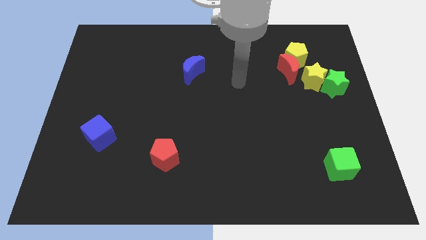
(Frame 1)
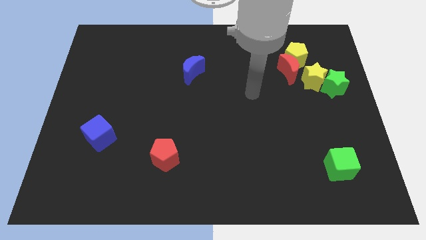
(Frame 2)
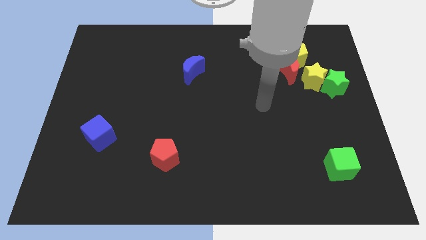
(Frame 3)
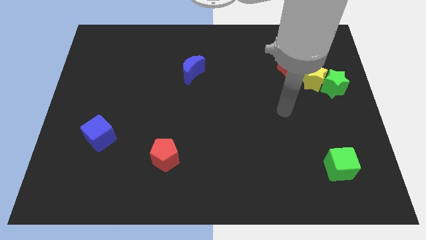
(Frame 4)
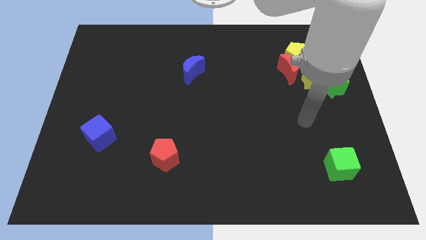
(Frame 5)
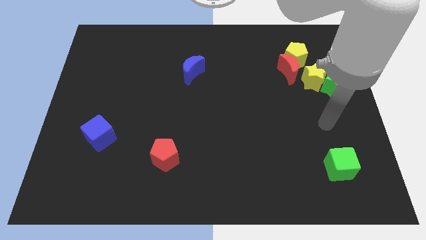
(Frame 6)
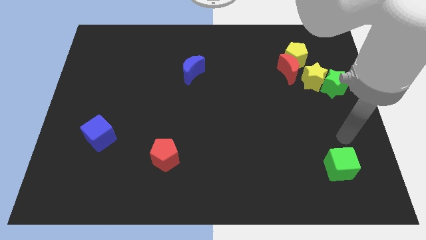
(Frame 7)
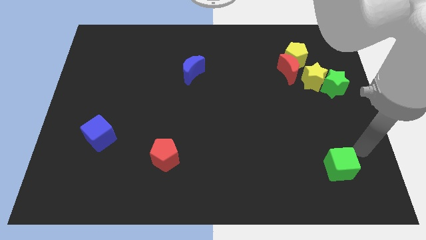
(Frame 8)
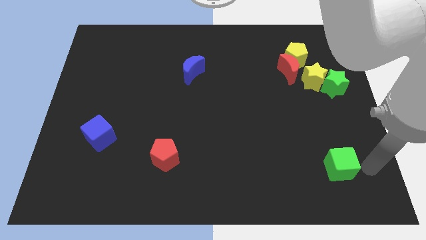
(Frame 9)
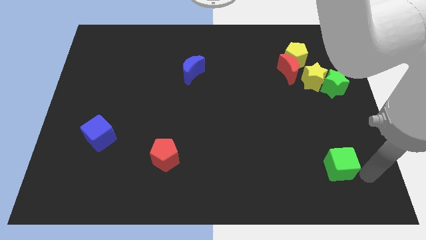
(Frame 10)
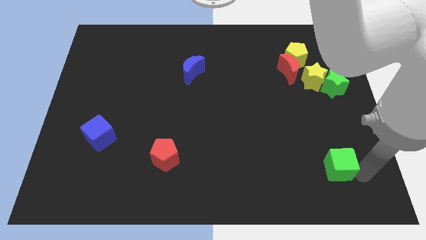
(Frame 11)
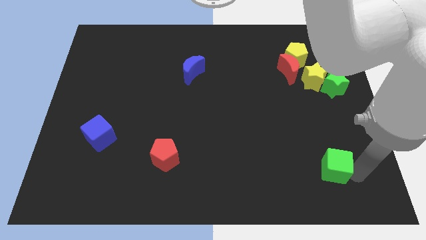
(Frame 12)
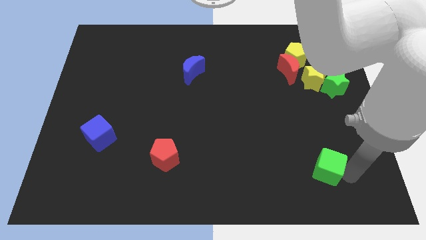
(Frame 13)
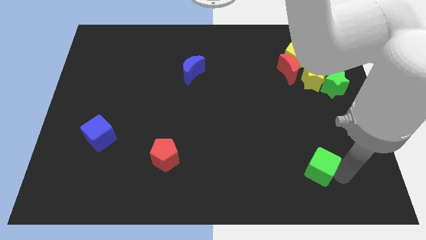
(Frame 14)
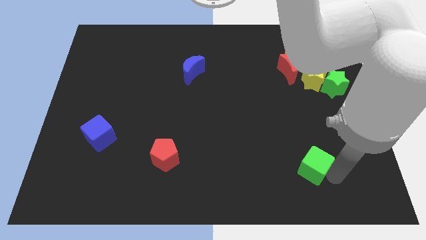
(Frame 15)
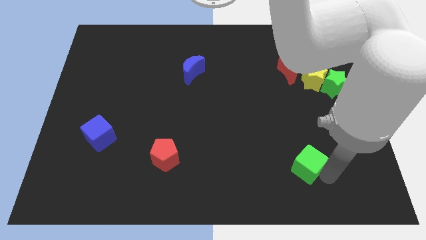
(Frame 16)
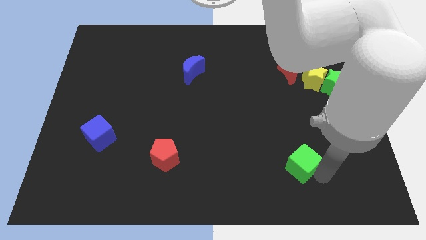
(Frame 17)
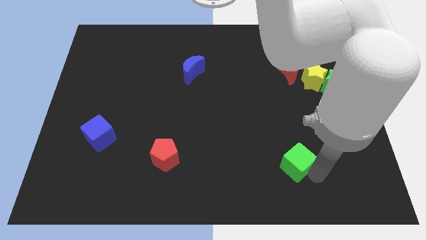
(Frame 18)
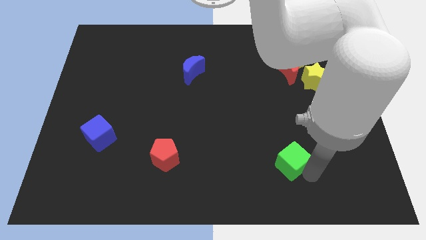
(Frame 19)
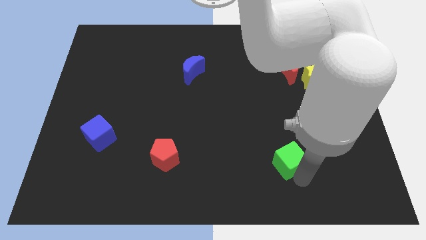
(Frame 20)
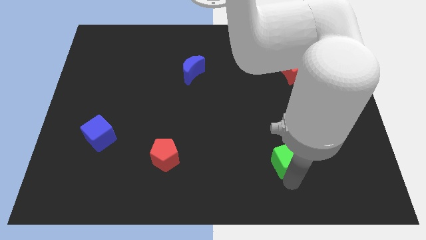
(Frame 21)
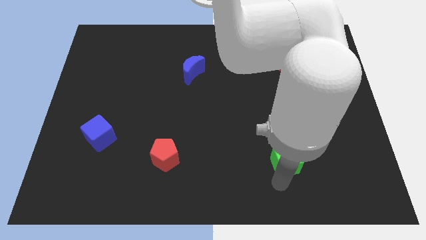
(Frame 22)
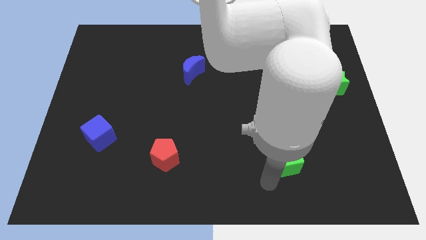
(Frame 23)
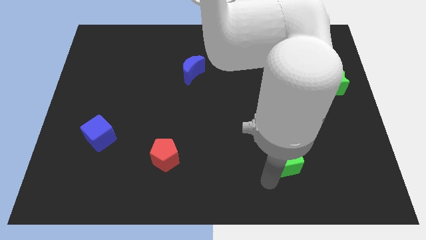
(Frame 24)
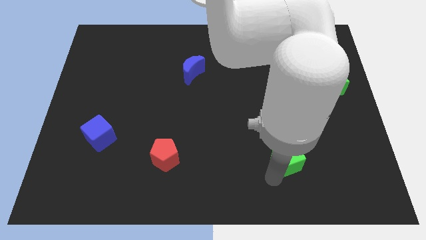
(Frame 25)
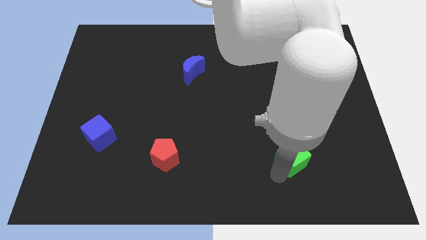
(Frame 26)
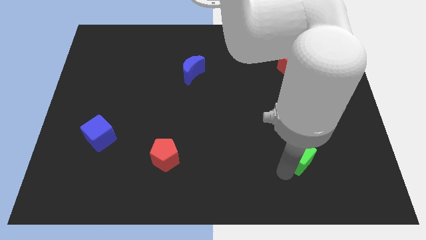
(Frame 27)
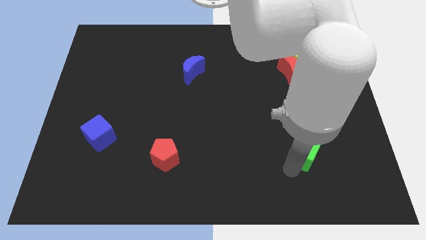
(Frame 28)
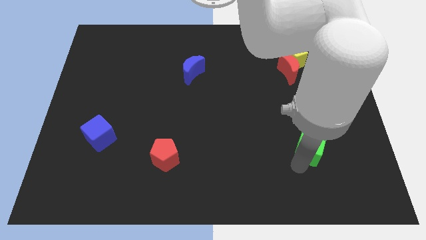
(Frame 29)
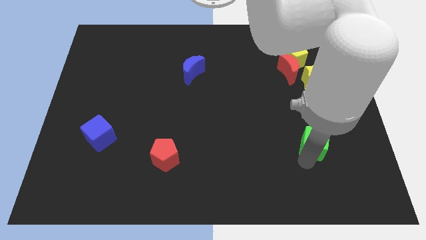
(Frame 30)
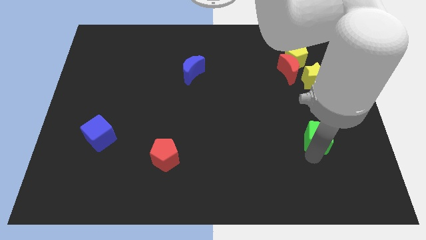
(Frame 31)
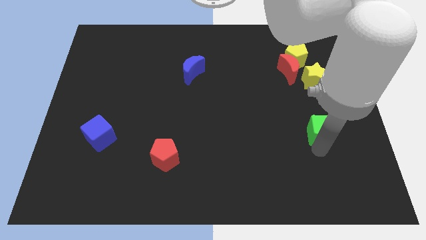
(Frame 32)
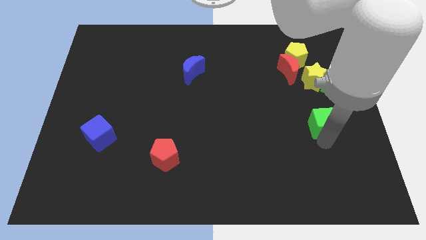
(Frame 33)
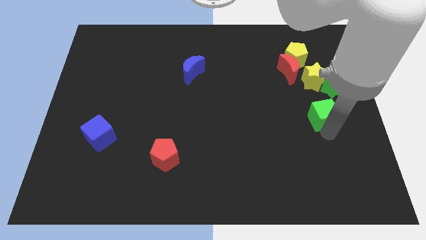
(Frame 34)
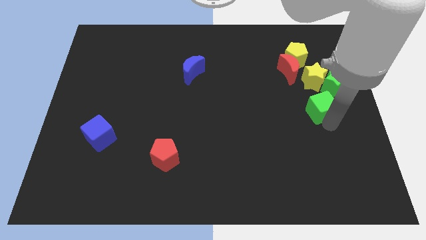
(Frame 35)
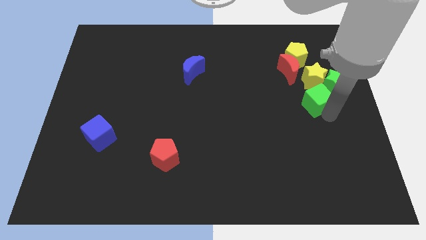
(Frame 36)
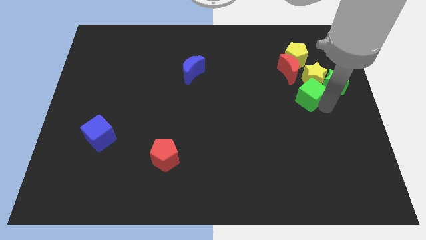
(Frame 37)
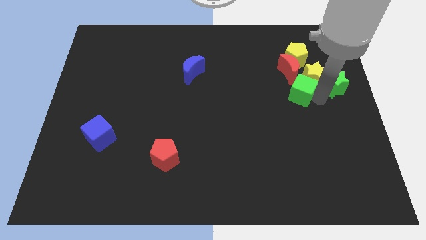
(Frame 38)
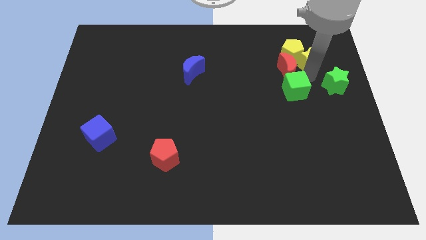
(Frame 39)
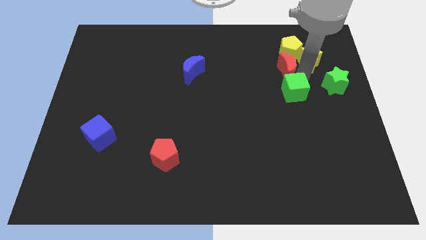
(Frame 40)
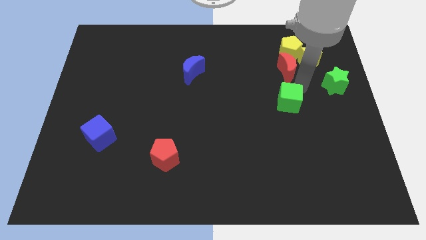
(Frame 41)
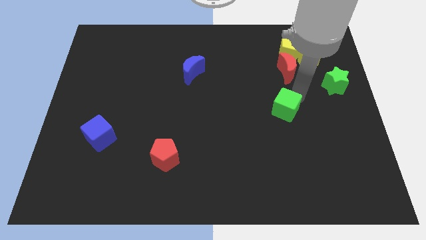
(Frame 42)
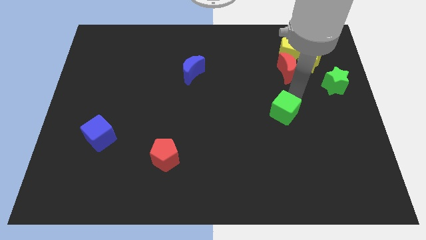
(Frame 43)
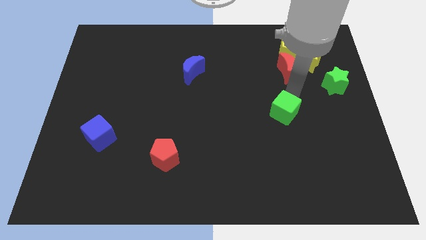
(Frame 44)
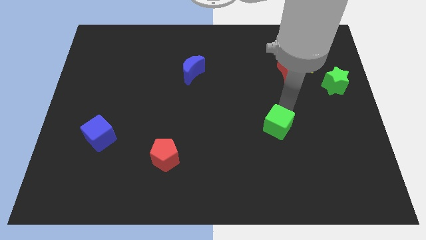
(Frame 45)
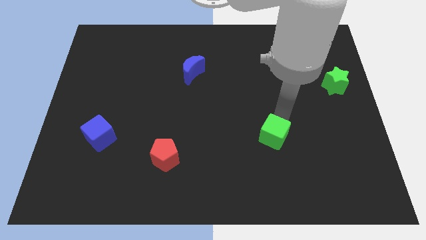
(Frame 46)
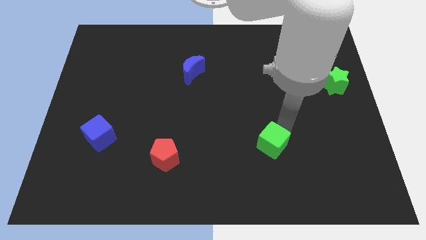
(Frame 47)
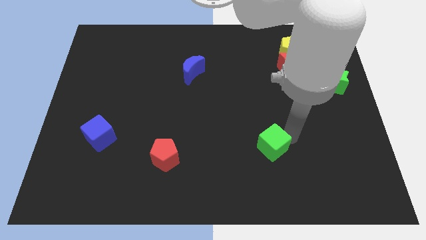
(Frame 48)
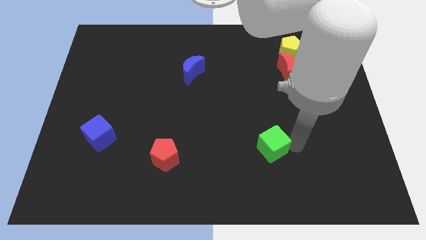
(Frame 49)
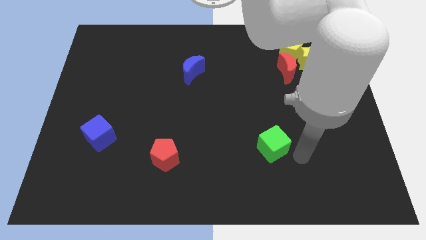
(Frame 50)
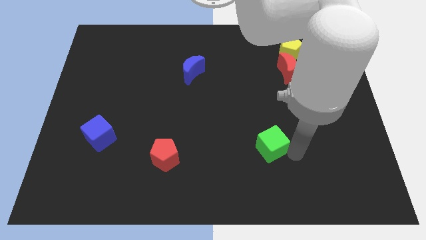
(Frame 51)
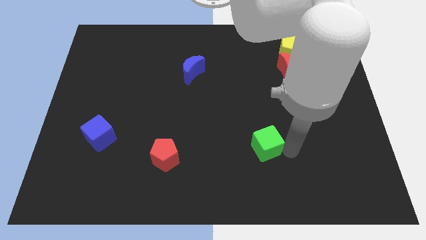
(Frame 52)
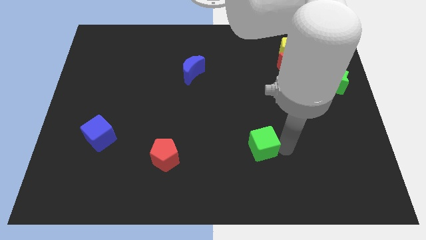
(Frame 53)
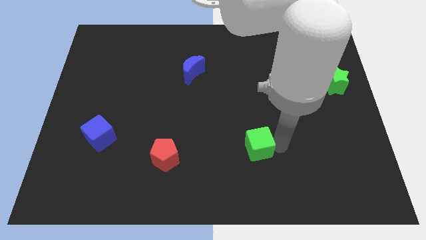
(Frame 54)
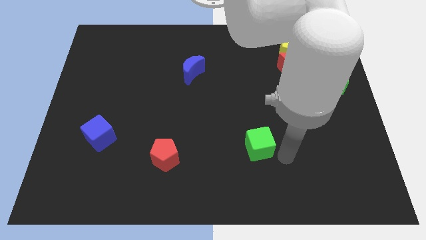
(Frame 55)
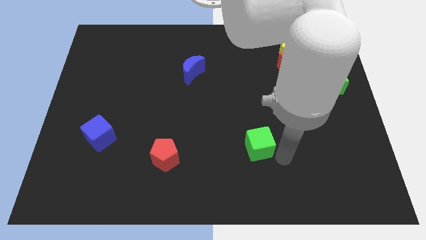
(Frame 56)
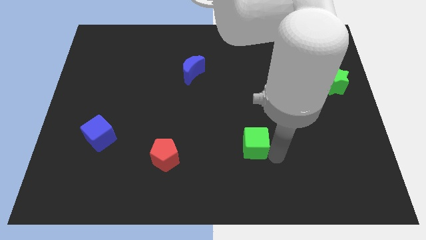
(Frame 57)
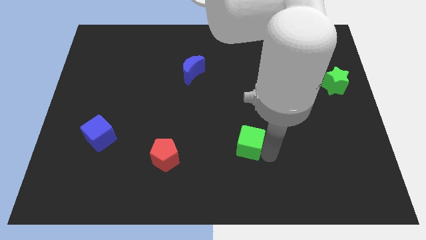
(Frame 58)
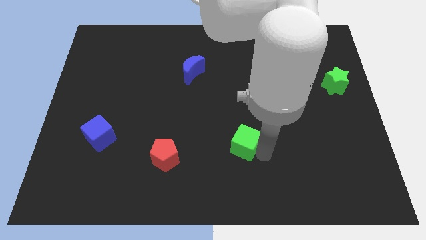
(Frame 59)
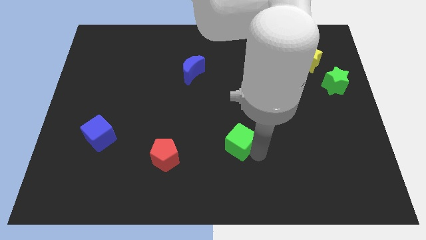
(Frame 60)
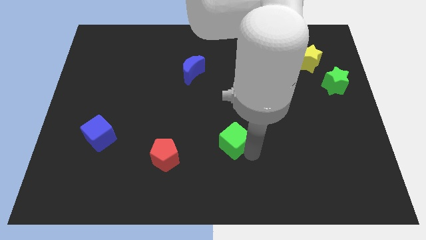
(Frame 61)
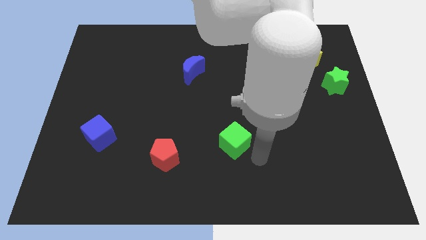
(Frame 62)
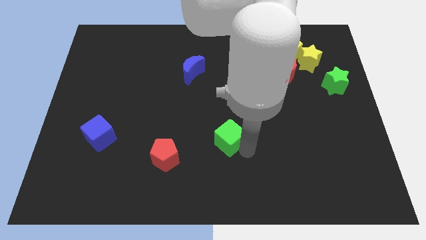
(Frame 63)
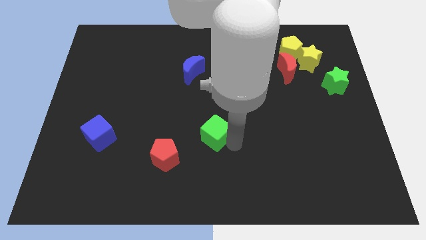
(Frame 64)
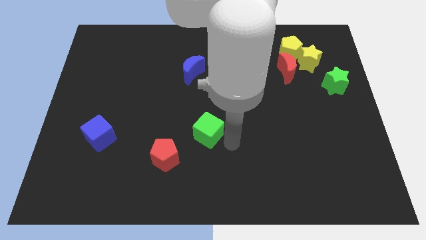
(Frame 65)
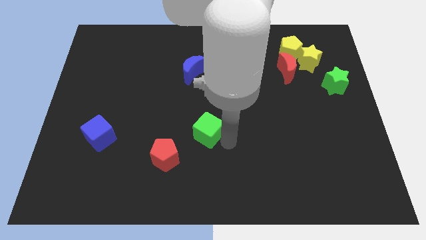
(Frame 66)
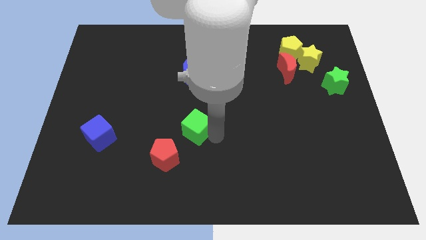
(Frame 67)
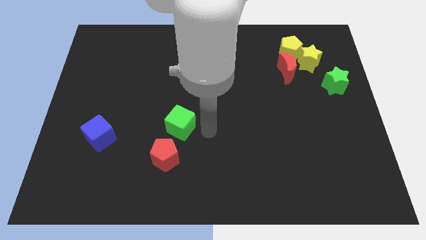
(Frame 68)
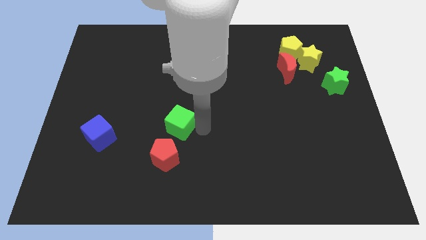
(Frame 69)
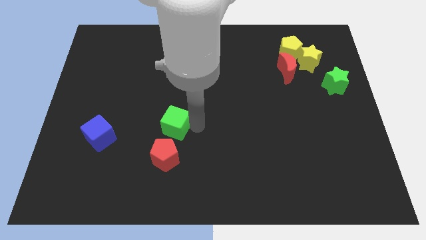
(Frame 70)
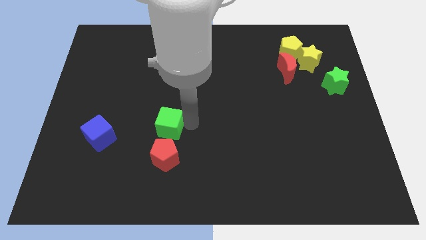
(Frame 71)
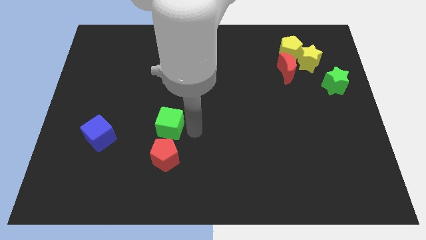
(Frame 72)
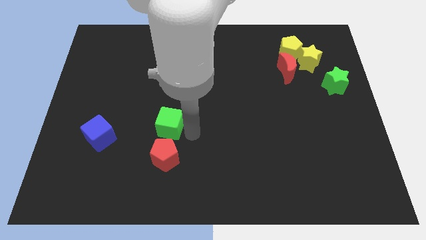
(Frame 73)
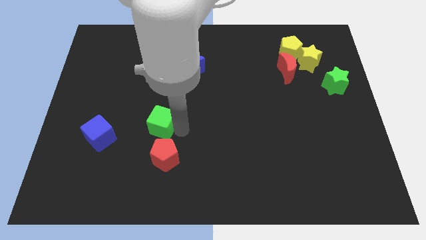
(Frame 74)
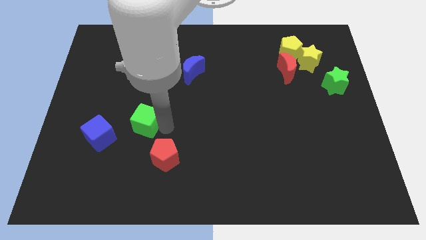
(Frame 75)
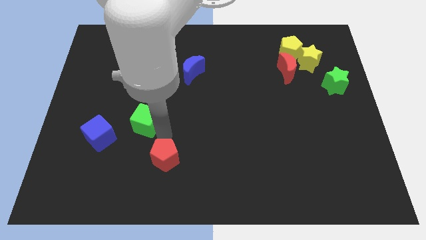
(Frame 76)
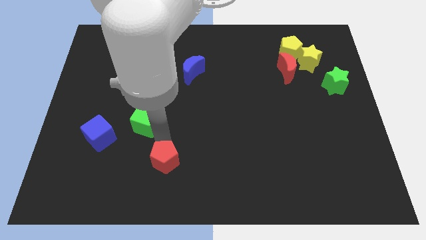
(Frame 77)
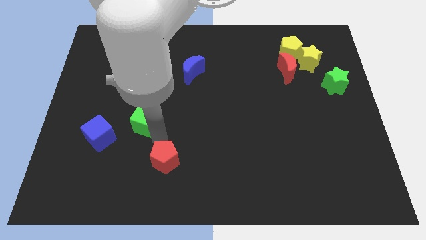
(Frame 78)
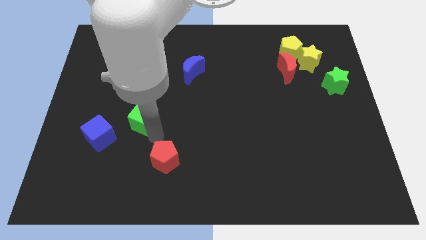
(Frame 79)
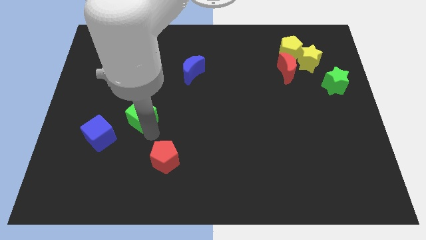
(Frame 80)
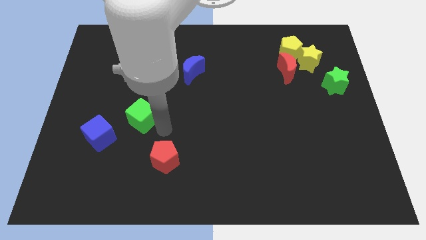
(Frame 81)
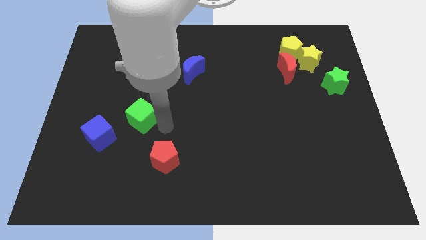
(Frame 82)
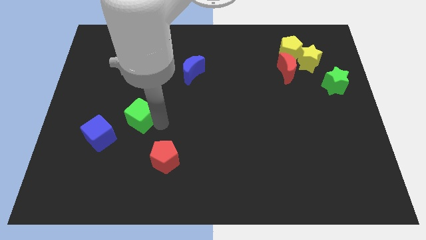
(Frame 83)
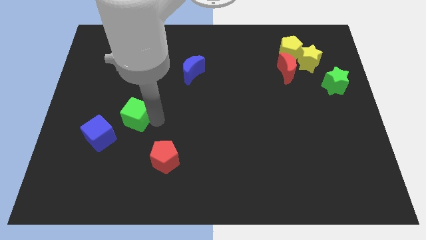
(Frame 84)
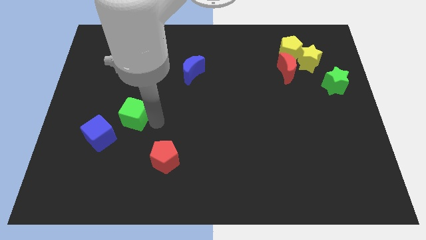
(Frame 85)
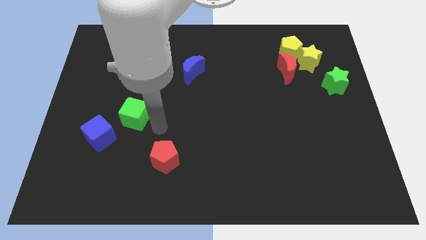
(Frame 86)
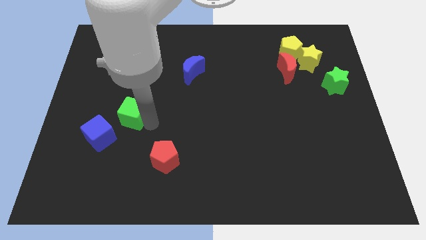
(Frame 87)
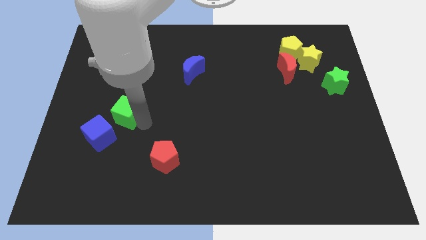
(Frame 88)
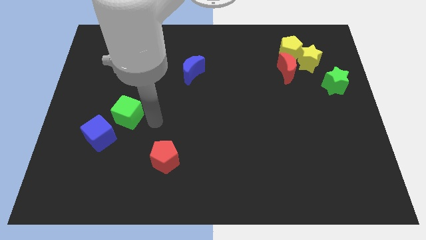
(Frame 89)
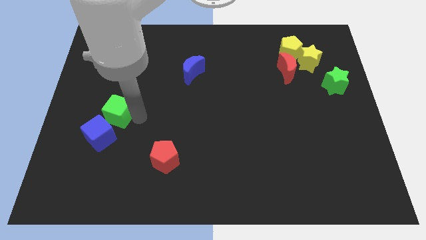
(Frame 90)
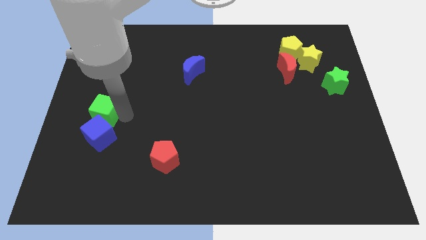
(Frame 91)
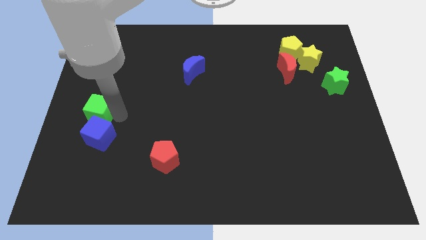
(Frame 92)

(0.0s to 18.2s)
push the green cube to the center left
